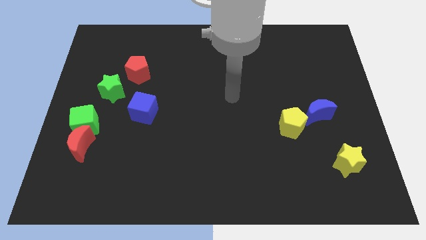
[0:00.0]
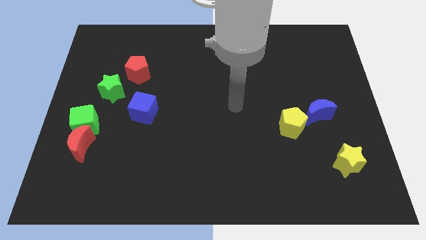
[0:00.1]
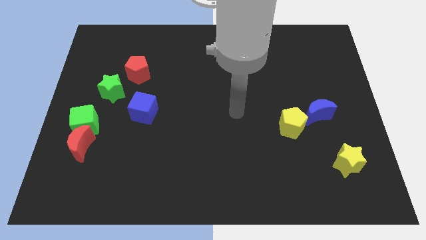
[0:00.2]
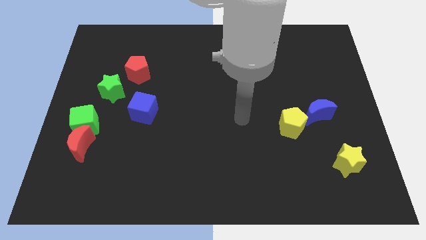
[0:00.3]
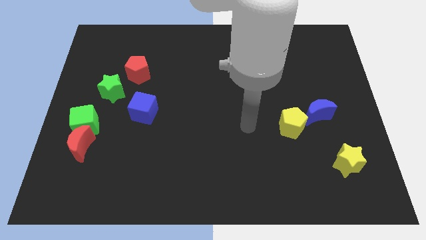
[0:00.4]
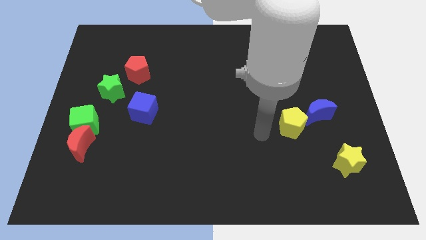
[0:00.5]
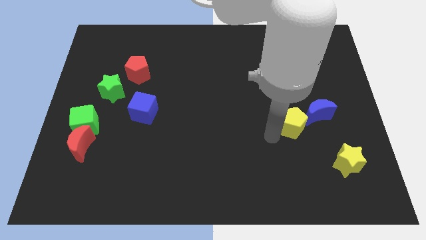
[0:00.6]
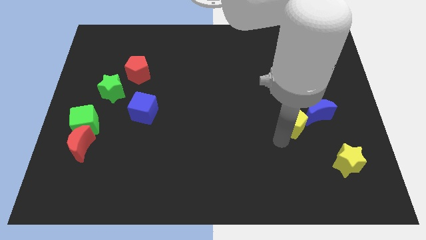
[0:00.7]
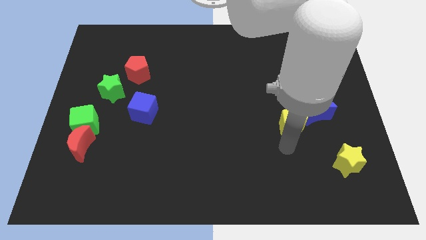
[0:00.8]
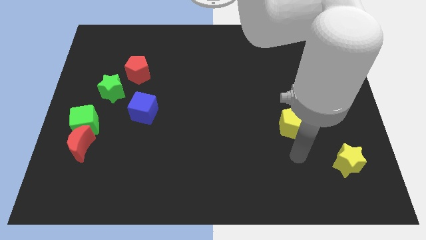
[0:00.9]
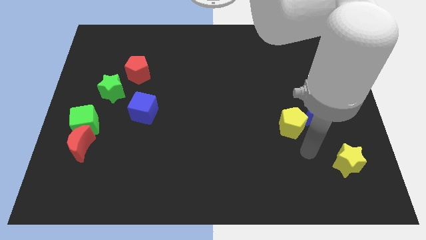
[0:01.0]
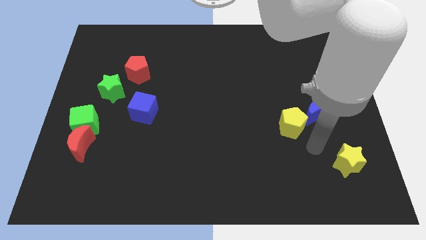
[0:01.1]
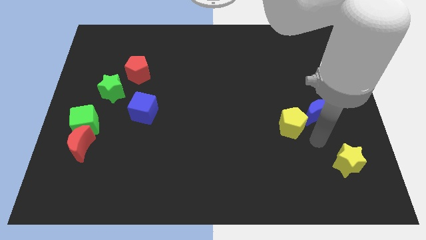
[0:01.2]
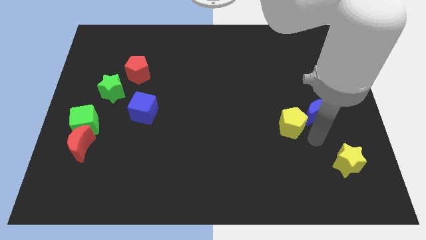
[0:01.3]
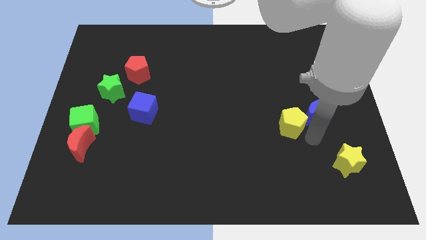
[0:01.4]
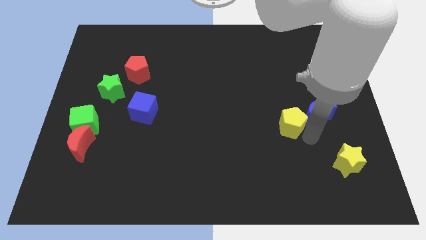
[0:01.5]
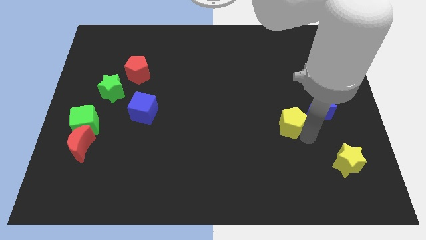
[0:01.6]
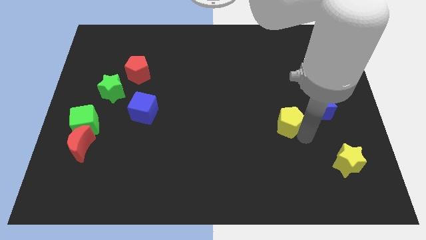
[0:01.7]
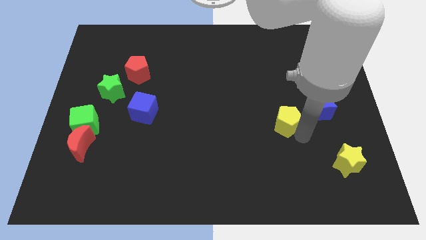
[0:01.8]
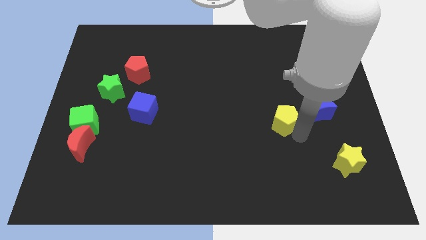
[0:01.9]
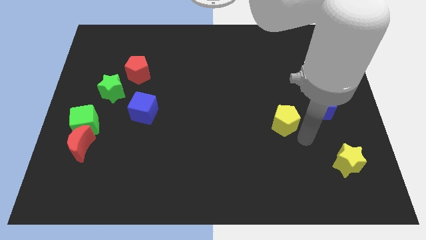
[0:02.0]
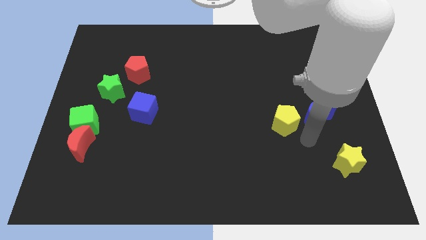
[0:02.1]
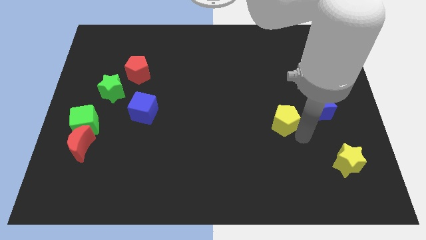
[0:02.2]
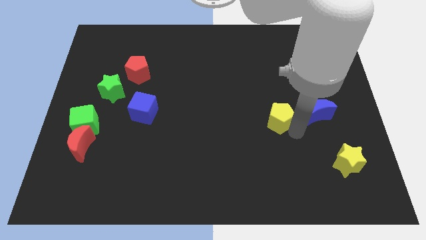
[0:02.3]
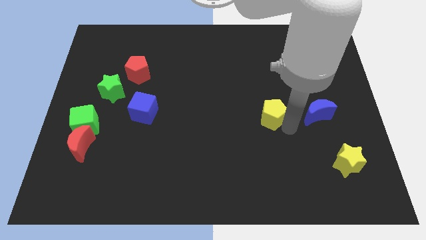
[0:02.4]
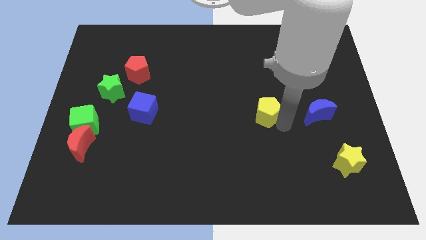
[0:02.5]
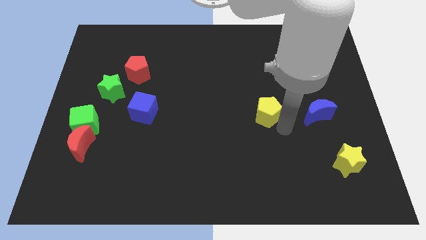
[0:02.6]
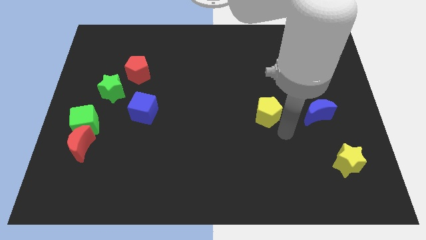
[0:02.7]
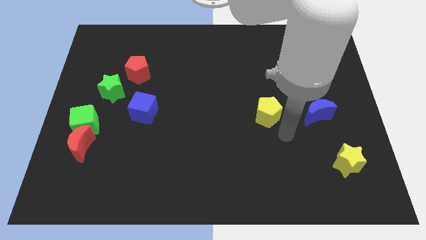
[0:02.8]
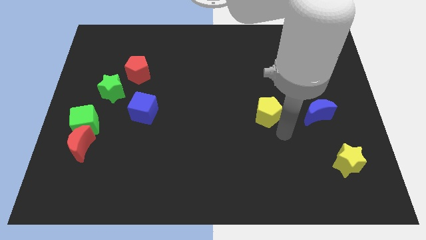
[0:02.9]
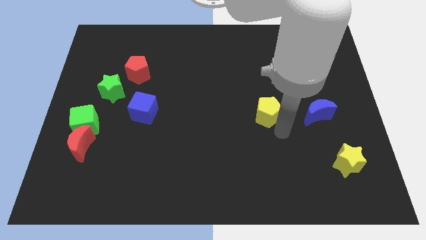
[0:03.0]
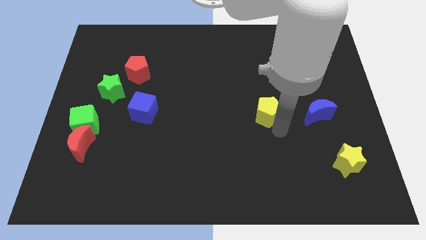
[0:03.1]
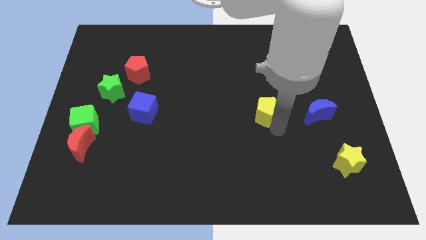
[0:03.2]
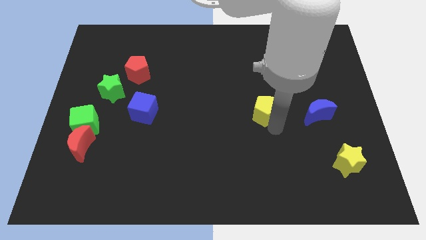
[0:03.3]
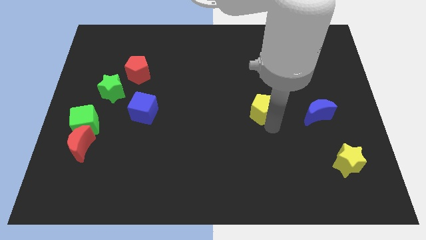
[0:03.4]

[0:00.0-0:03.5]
slightly slide the yellow pentagon diagonally upwards and left

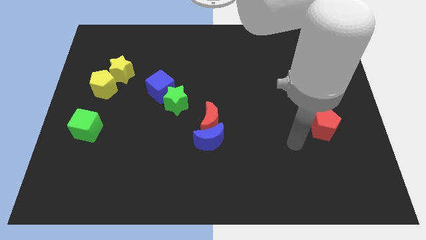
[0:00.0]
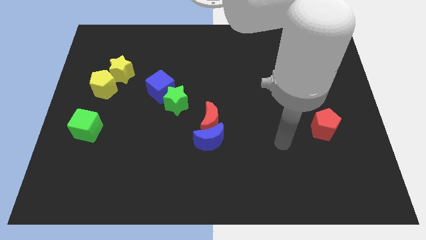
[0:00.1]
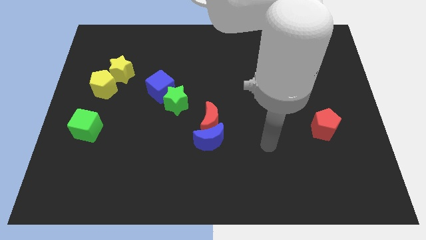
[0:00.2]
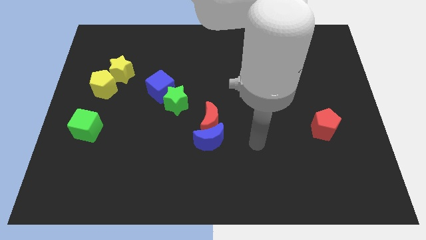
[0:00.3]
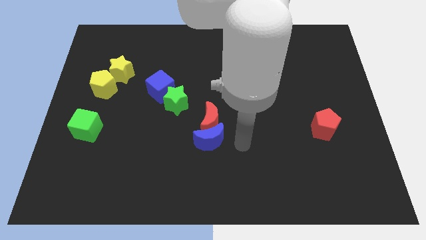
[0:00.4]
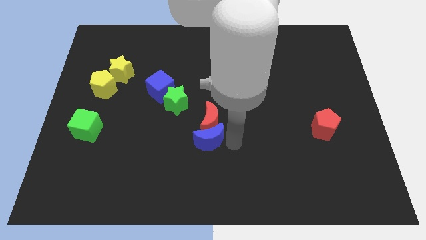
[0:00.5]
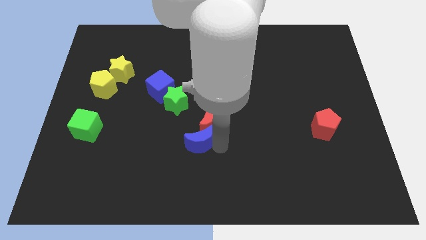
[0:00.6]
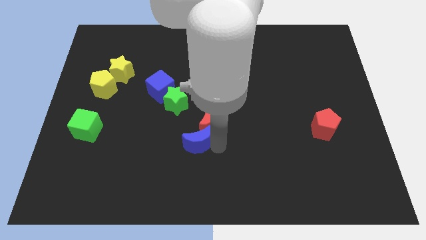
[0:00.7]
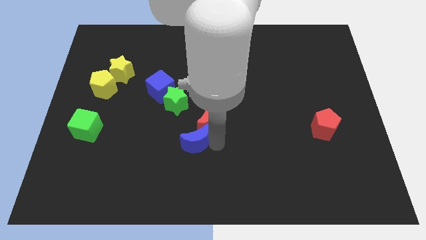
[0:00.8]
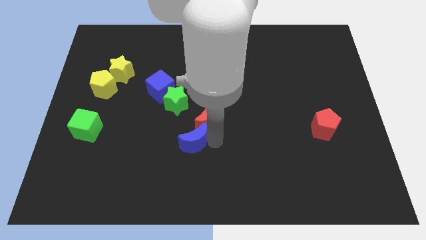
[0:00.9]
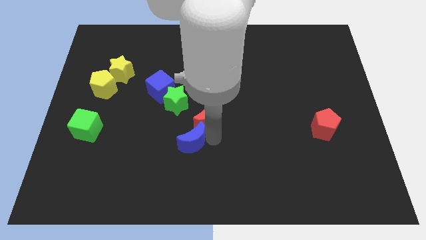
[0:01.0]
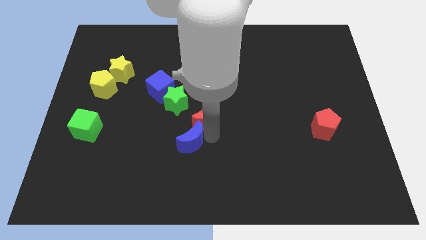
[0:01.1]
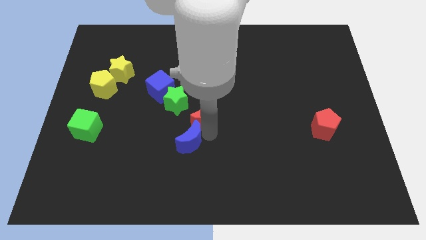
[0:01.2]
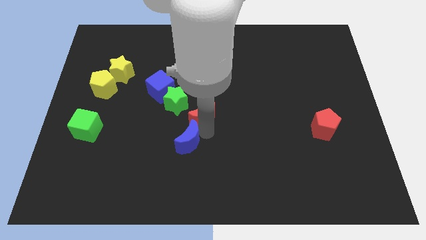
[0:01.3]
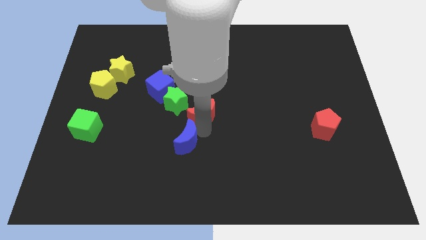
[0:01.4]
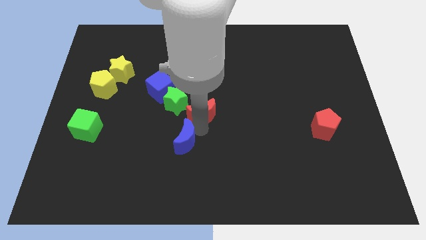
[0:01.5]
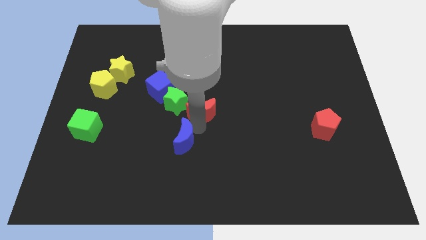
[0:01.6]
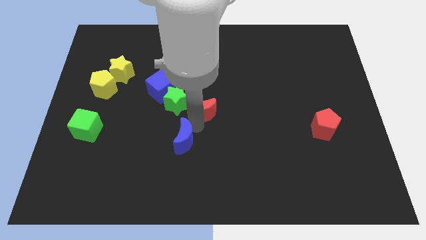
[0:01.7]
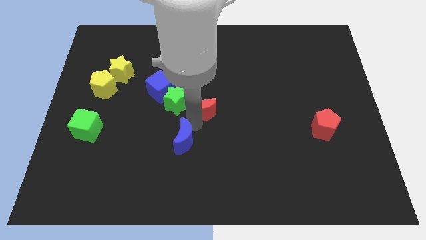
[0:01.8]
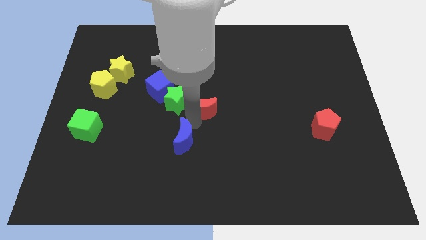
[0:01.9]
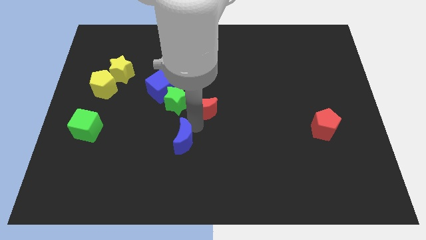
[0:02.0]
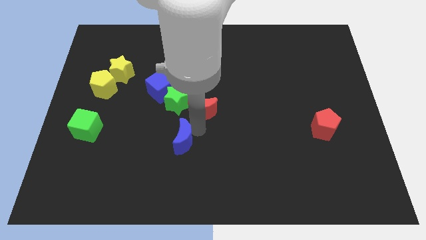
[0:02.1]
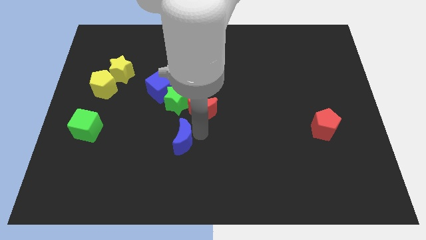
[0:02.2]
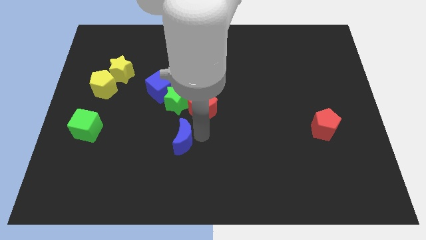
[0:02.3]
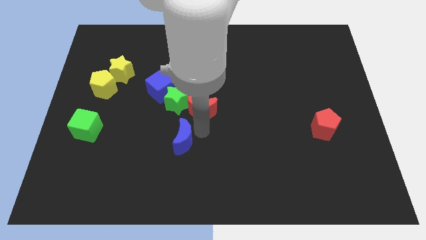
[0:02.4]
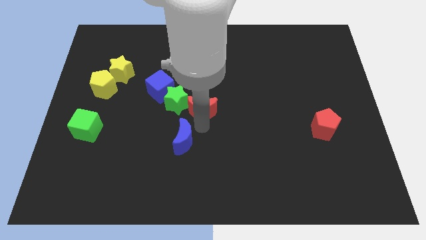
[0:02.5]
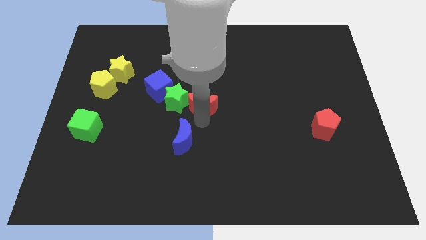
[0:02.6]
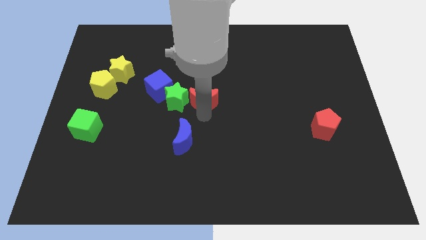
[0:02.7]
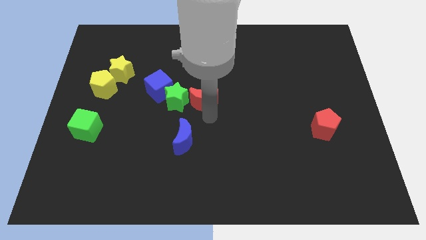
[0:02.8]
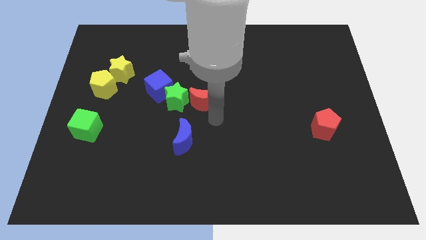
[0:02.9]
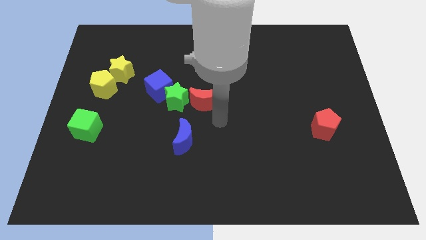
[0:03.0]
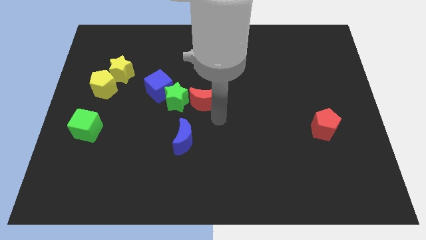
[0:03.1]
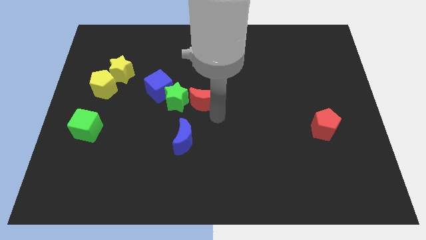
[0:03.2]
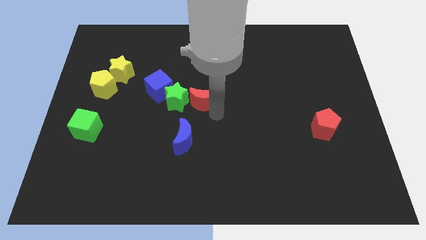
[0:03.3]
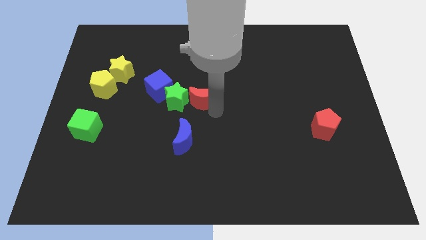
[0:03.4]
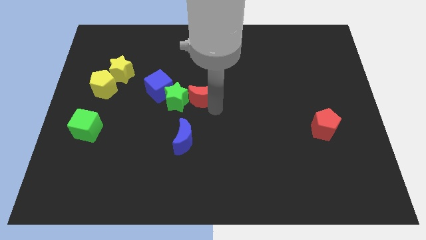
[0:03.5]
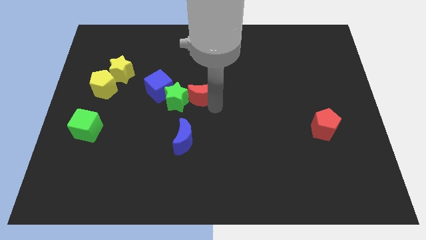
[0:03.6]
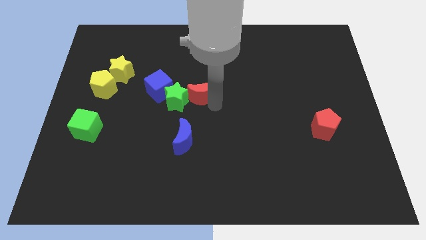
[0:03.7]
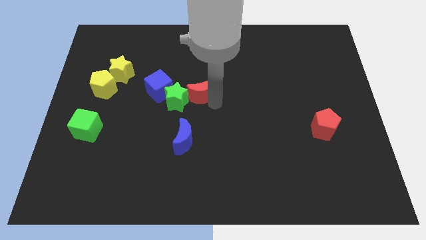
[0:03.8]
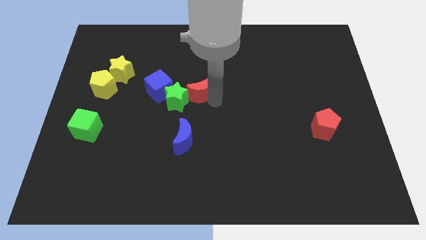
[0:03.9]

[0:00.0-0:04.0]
slightly push the red moon up and then left

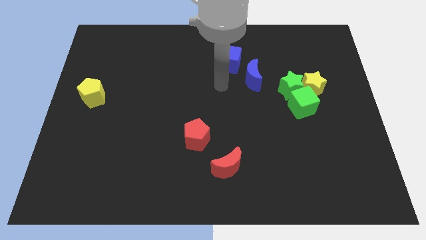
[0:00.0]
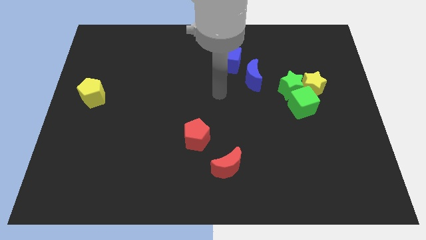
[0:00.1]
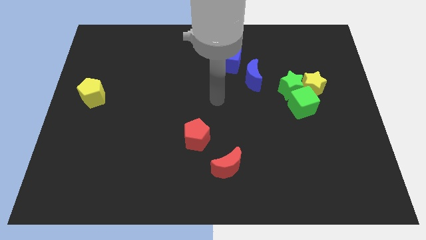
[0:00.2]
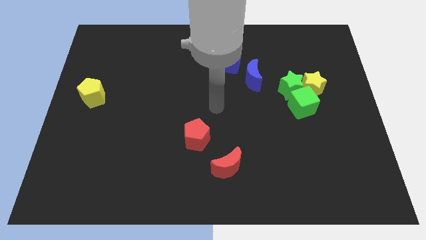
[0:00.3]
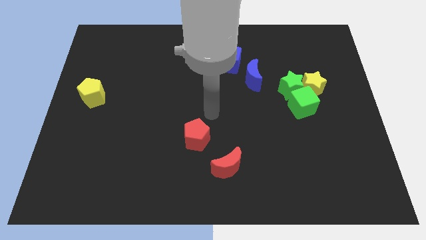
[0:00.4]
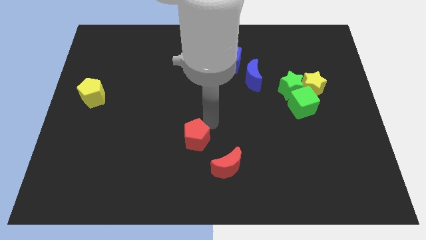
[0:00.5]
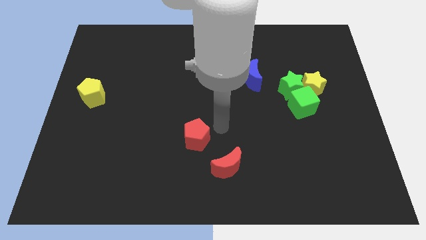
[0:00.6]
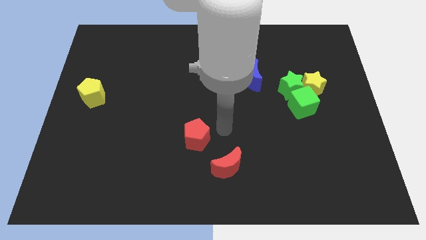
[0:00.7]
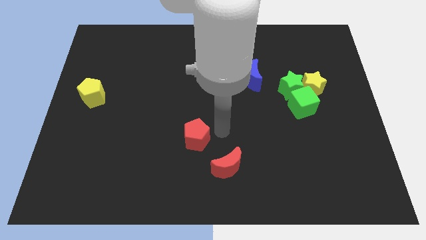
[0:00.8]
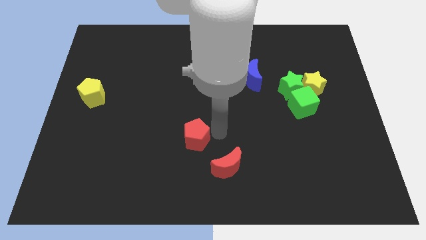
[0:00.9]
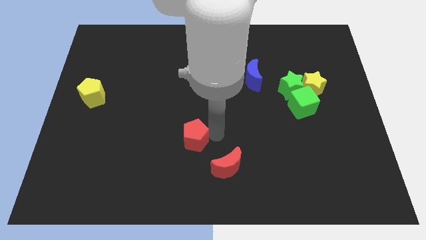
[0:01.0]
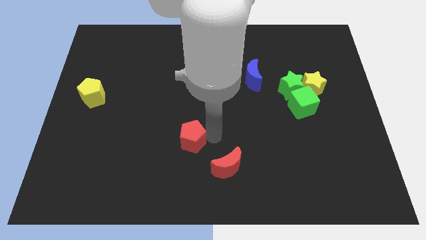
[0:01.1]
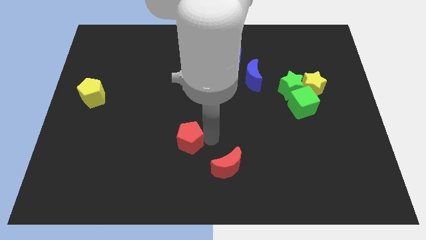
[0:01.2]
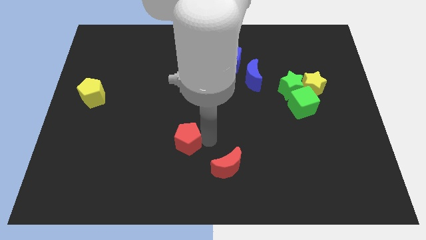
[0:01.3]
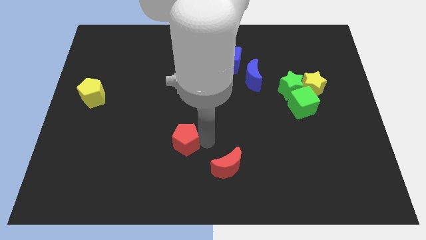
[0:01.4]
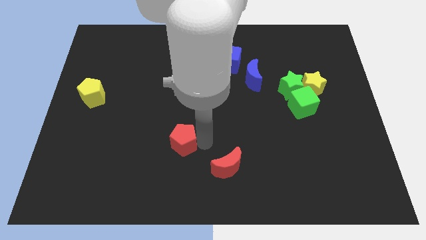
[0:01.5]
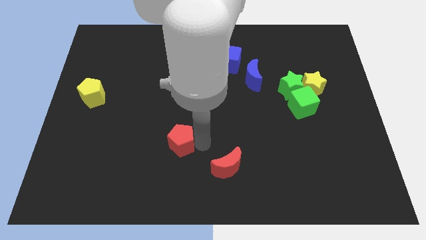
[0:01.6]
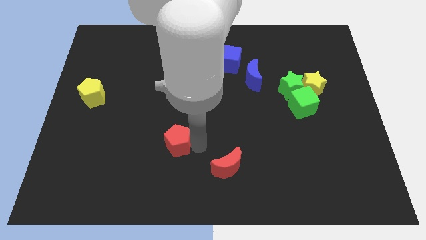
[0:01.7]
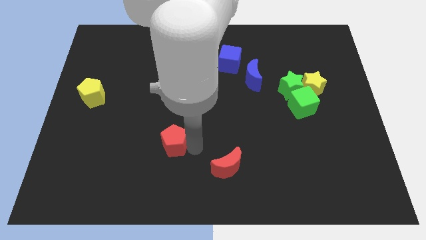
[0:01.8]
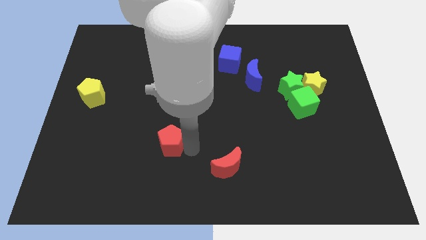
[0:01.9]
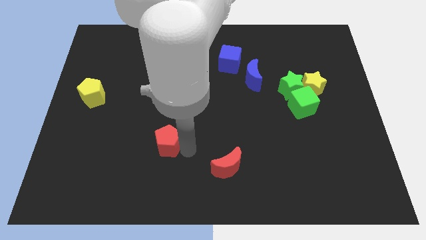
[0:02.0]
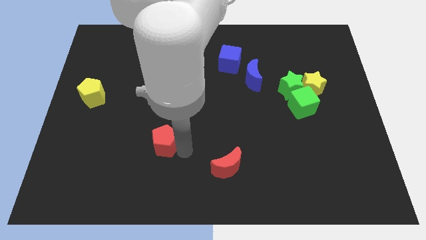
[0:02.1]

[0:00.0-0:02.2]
push the red pentagon left slightly
